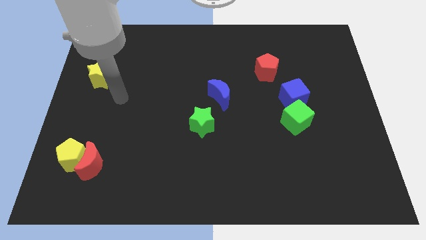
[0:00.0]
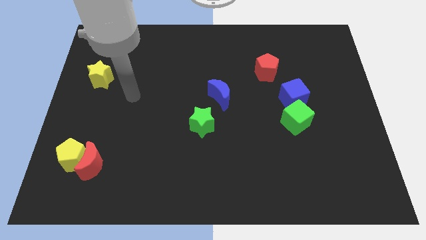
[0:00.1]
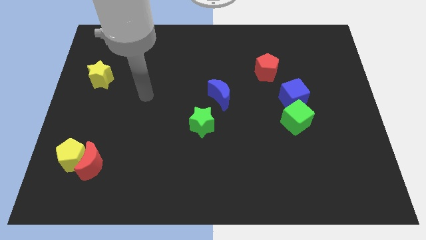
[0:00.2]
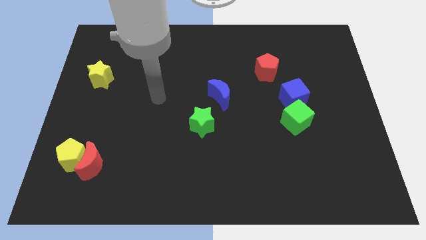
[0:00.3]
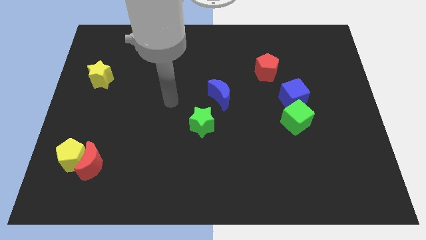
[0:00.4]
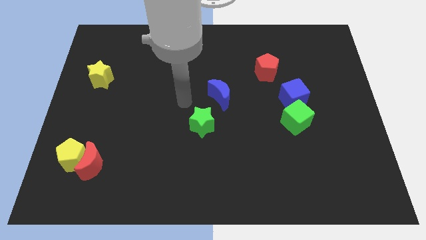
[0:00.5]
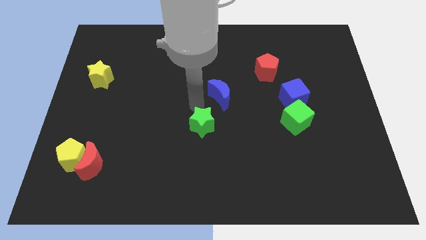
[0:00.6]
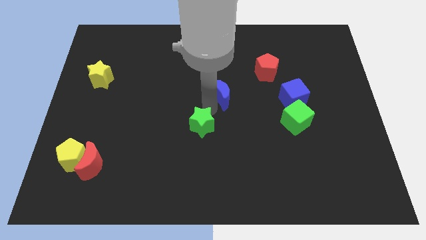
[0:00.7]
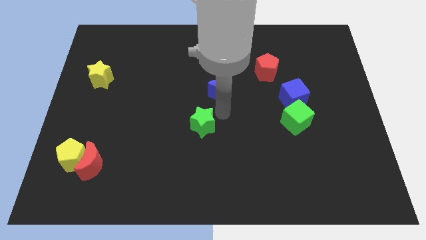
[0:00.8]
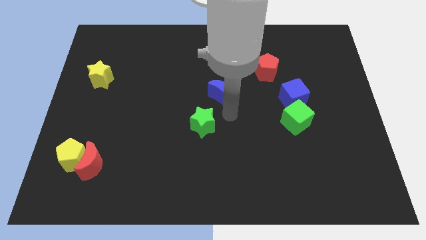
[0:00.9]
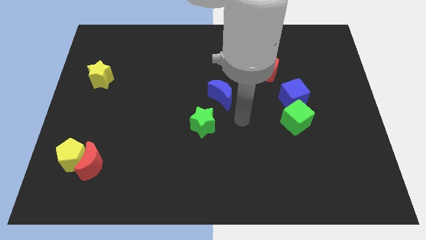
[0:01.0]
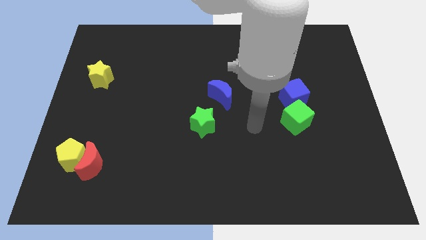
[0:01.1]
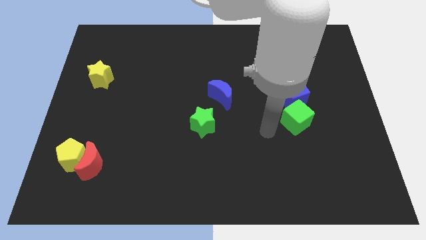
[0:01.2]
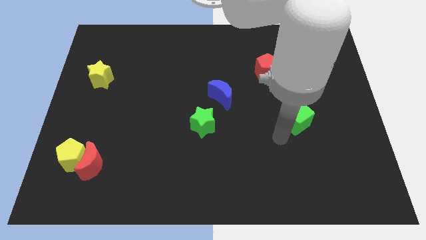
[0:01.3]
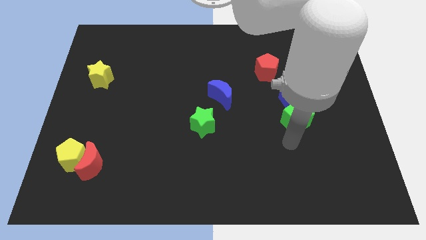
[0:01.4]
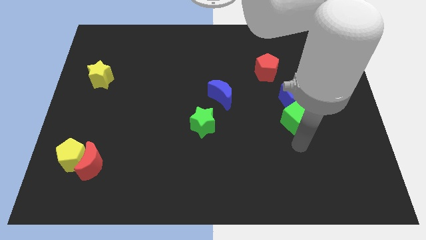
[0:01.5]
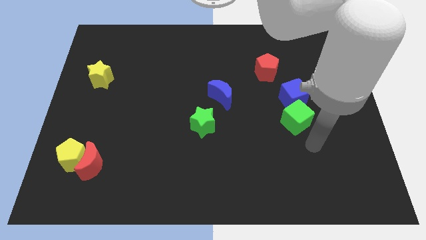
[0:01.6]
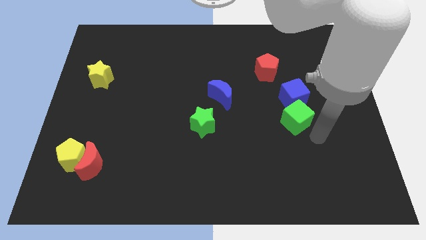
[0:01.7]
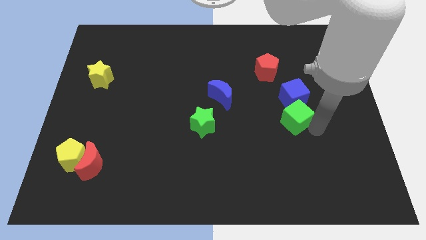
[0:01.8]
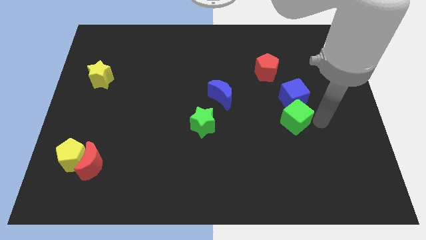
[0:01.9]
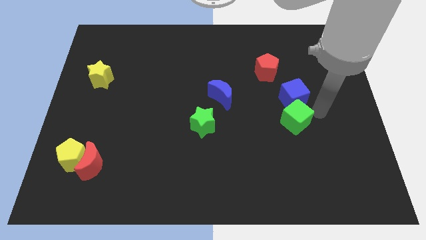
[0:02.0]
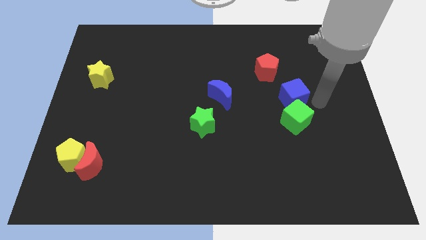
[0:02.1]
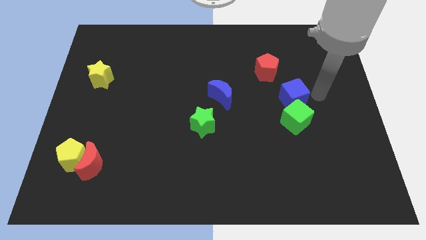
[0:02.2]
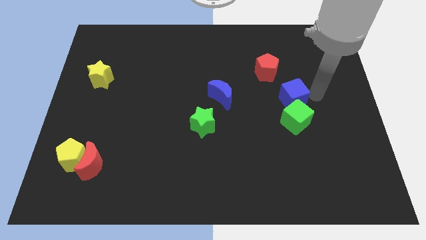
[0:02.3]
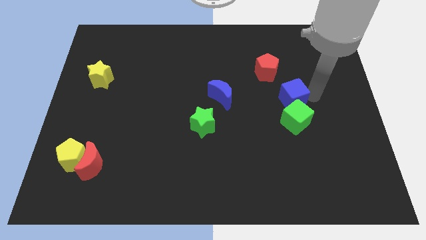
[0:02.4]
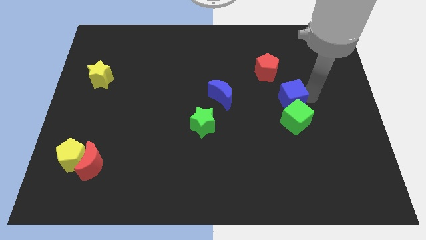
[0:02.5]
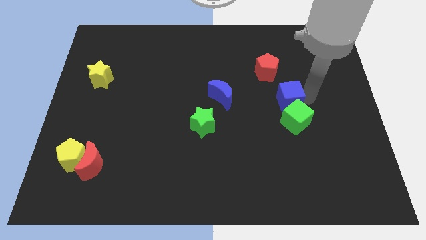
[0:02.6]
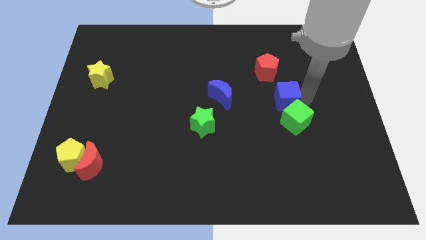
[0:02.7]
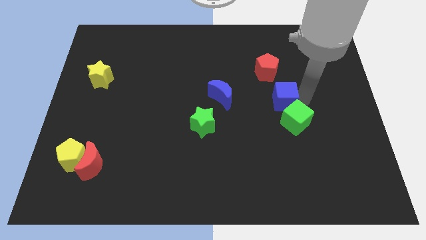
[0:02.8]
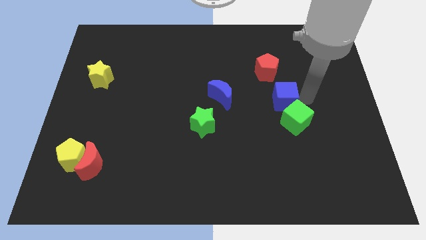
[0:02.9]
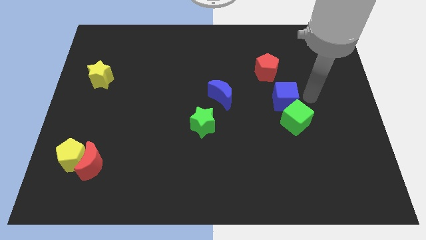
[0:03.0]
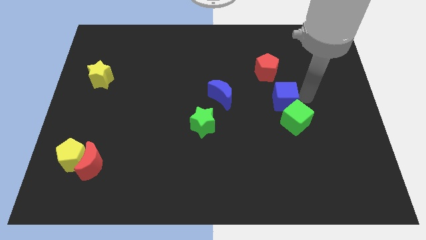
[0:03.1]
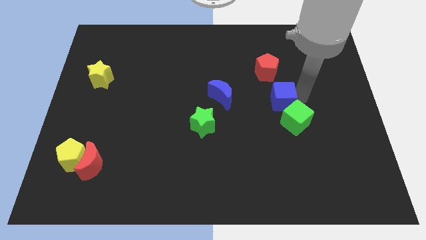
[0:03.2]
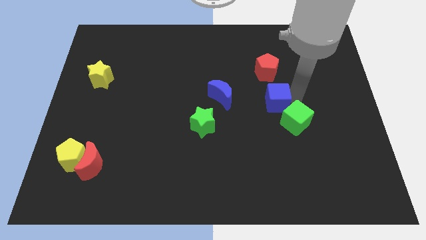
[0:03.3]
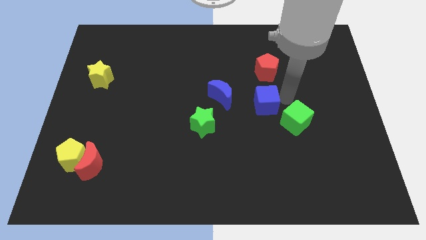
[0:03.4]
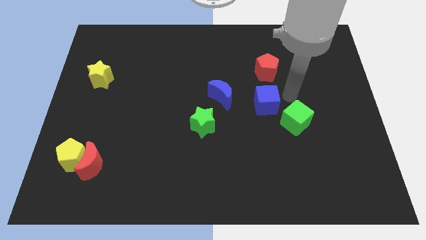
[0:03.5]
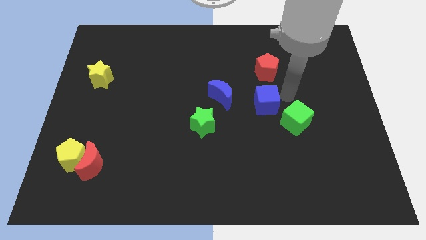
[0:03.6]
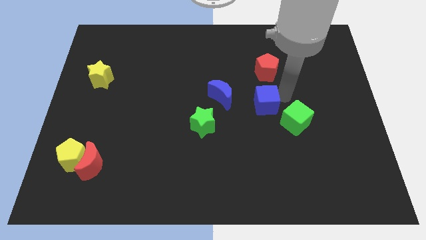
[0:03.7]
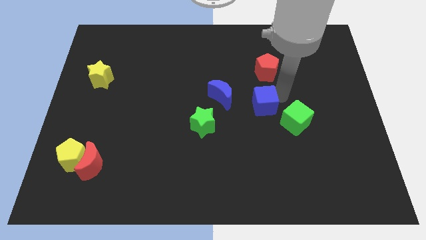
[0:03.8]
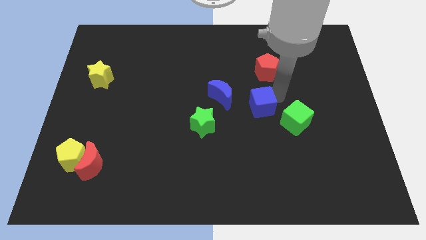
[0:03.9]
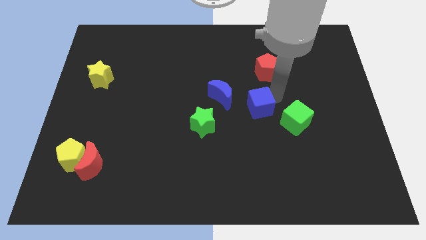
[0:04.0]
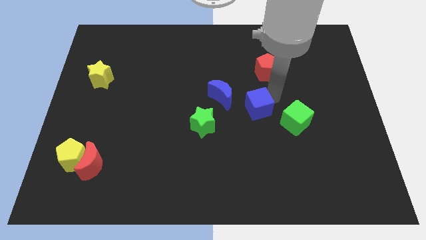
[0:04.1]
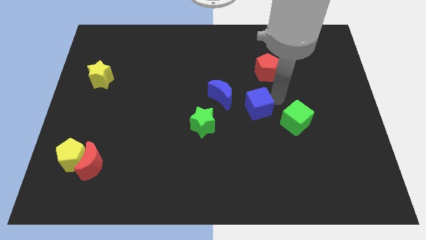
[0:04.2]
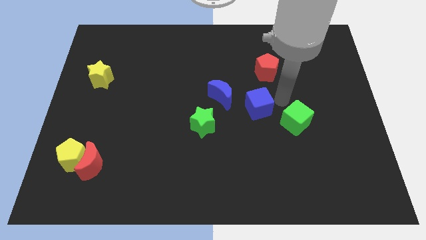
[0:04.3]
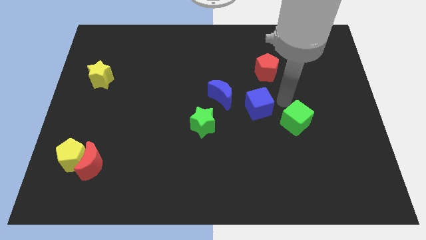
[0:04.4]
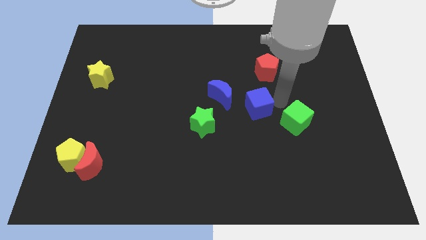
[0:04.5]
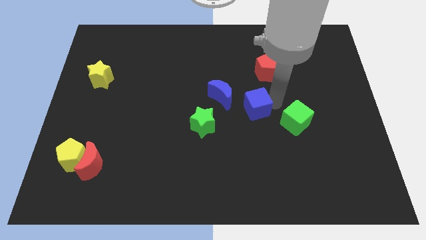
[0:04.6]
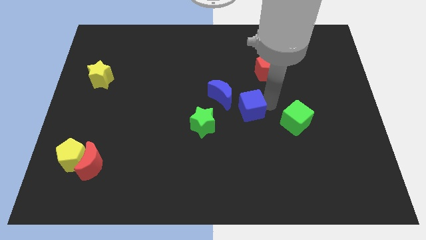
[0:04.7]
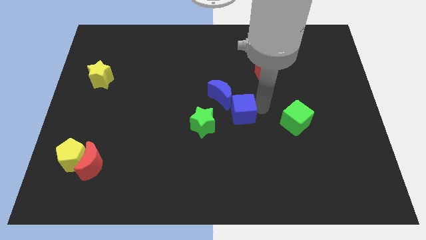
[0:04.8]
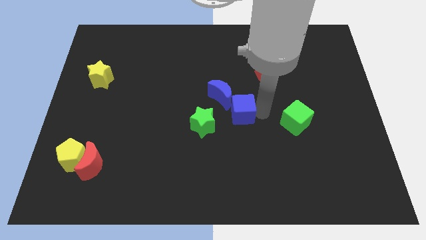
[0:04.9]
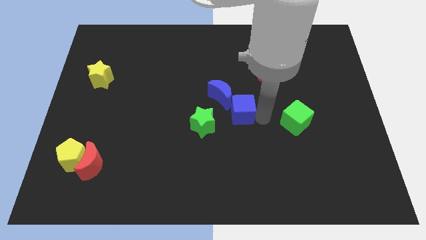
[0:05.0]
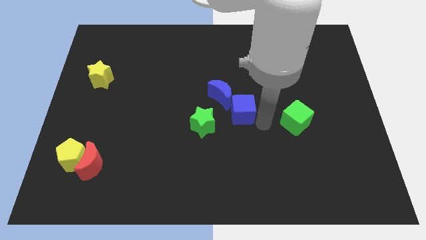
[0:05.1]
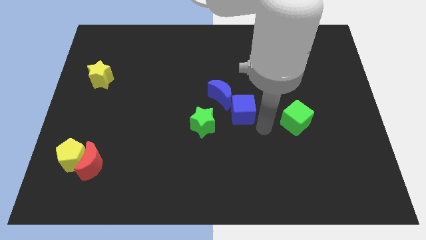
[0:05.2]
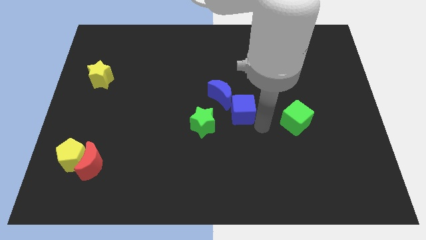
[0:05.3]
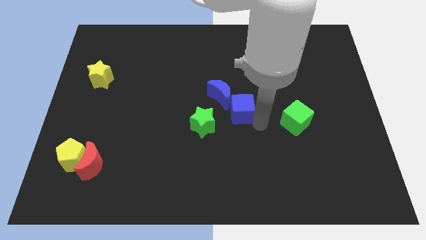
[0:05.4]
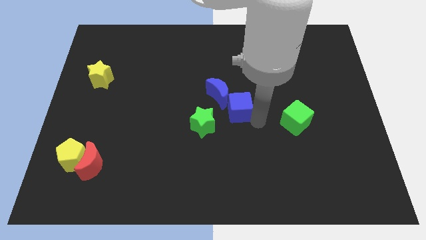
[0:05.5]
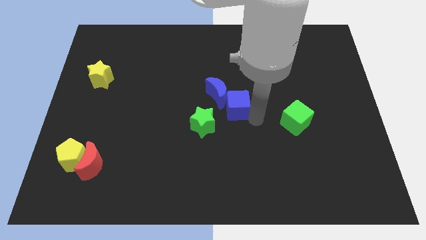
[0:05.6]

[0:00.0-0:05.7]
push the blue cube to the blue moon

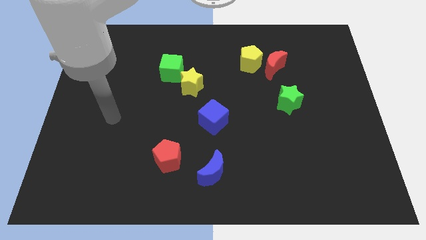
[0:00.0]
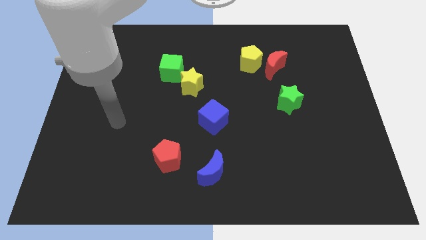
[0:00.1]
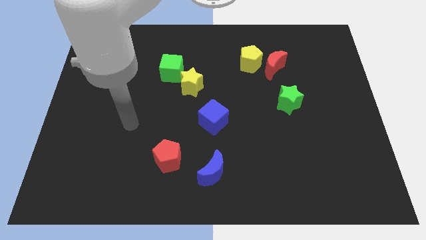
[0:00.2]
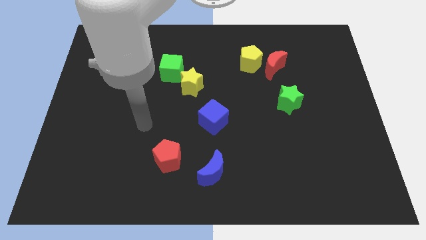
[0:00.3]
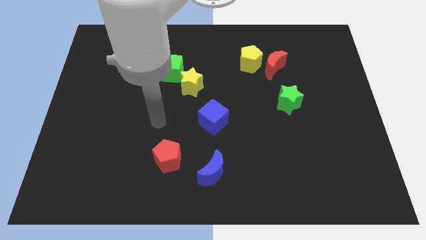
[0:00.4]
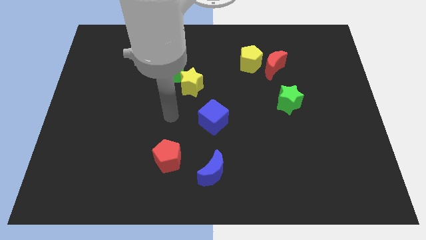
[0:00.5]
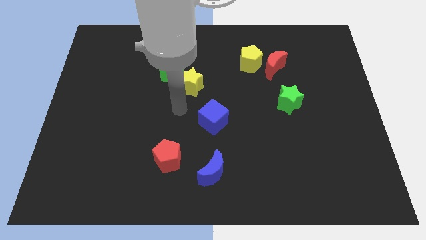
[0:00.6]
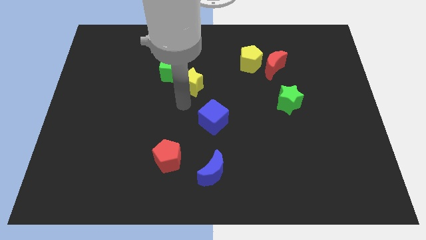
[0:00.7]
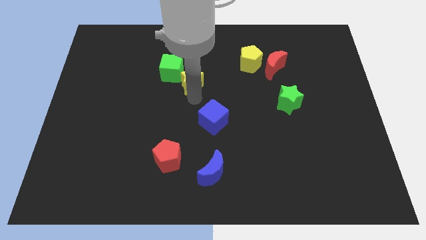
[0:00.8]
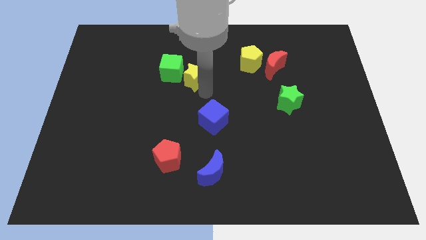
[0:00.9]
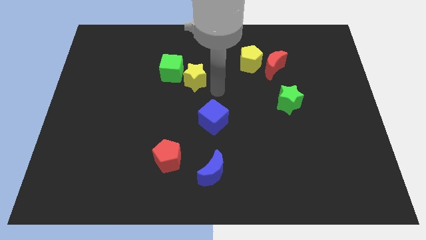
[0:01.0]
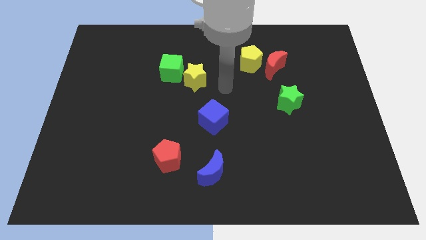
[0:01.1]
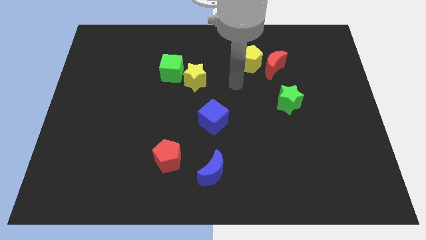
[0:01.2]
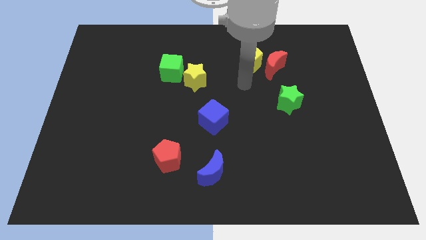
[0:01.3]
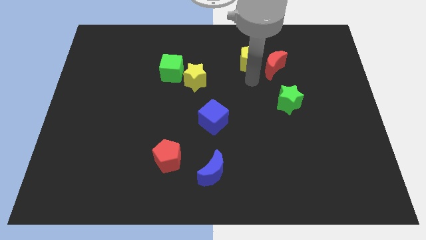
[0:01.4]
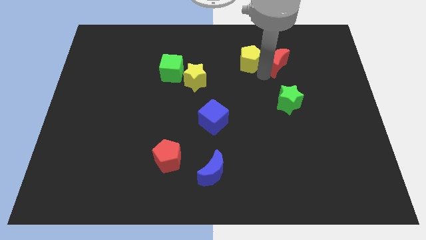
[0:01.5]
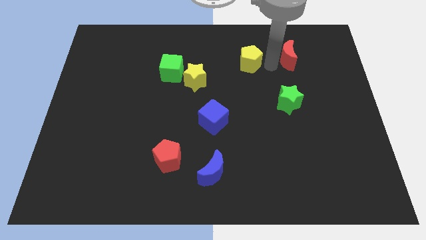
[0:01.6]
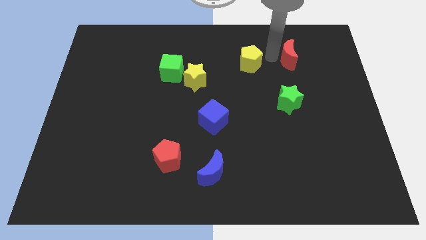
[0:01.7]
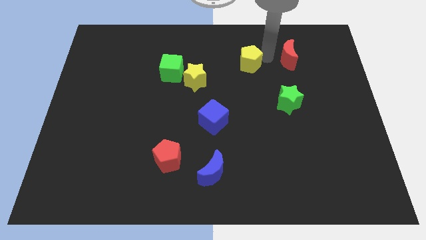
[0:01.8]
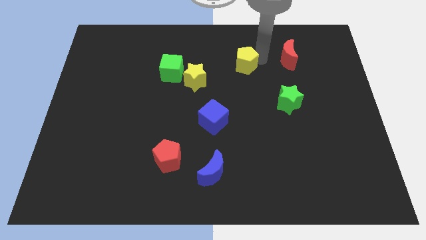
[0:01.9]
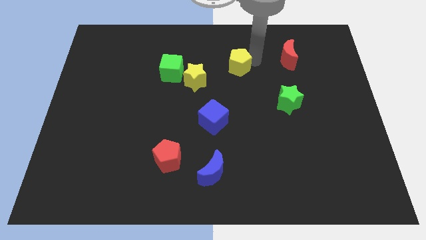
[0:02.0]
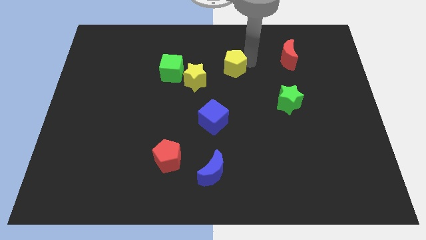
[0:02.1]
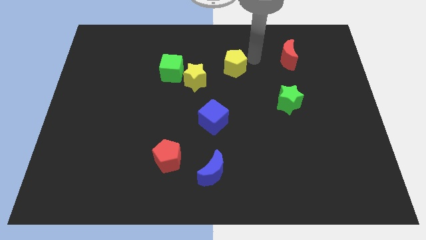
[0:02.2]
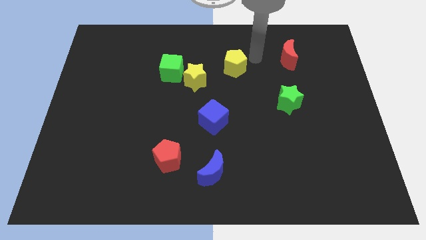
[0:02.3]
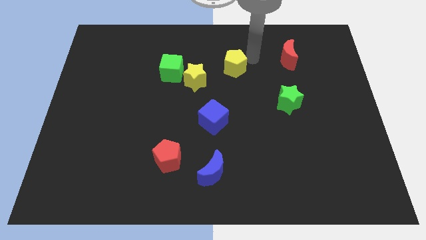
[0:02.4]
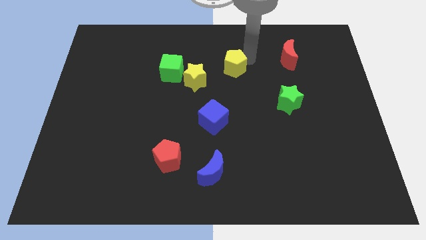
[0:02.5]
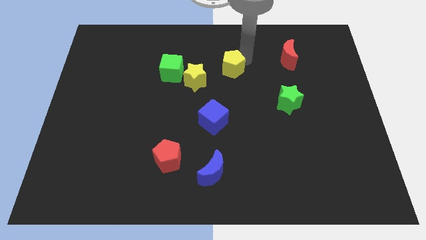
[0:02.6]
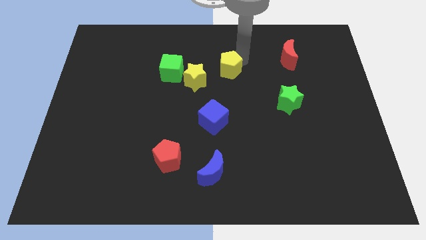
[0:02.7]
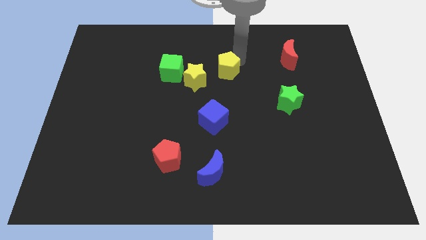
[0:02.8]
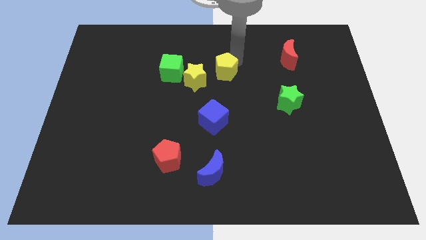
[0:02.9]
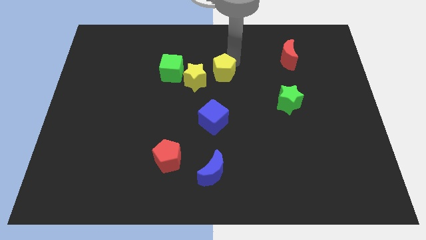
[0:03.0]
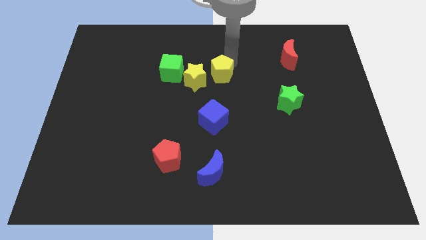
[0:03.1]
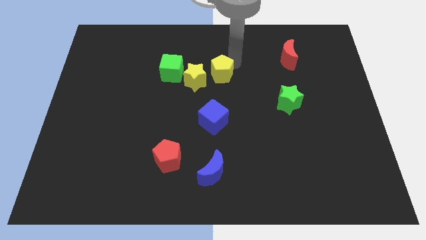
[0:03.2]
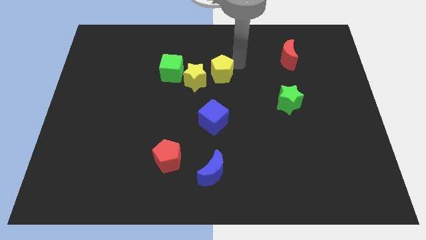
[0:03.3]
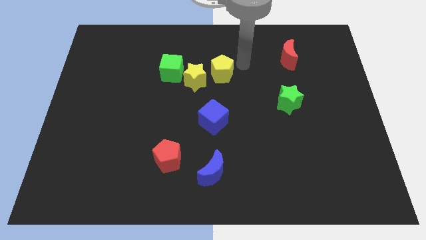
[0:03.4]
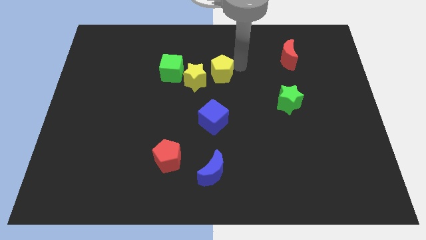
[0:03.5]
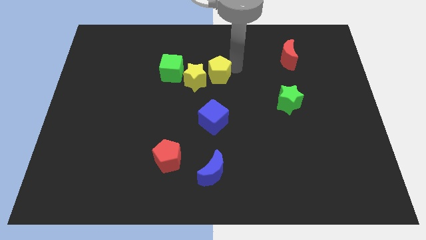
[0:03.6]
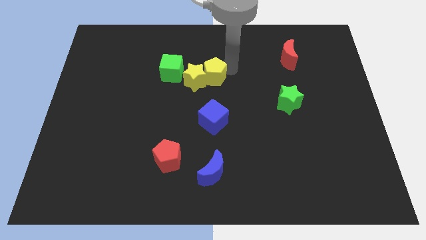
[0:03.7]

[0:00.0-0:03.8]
push the yellow pentagon close to the yellow star
